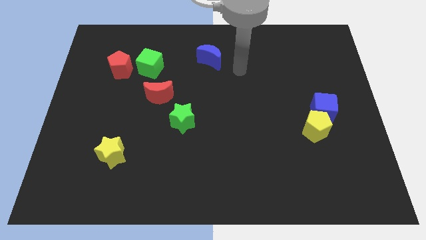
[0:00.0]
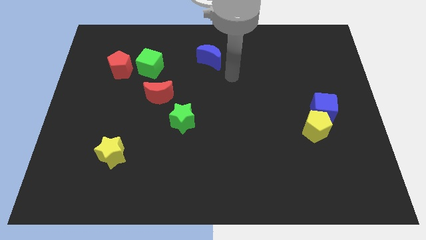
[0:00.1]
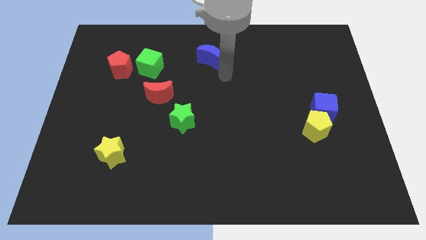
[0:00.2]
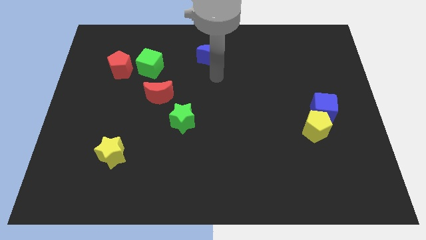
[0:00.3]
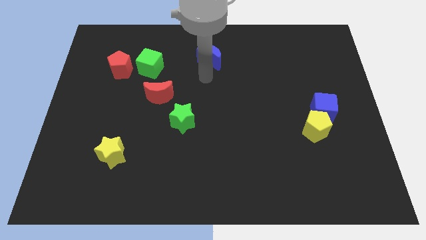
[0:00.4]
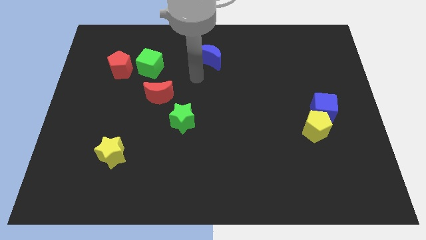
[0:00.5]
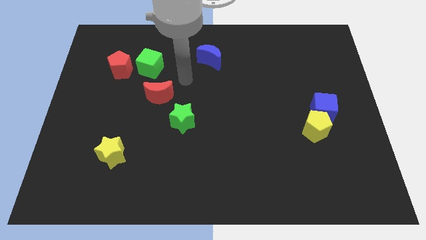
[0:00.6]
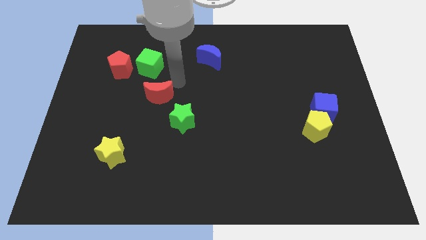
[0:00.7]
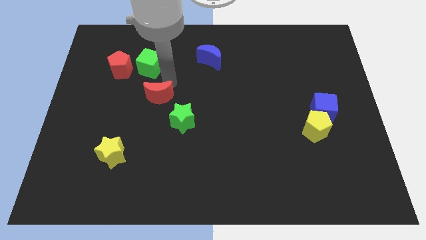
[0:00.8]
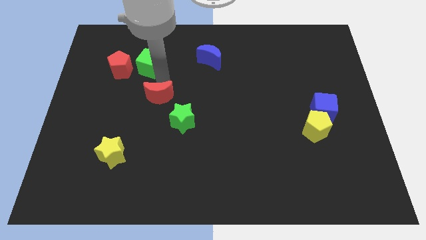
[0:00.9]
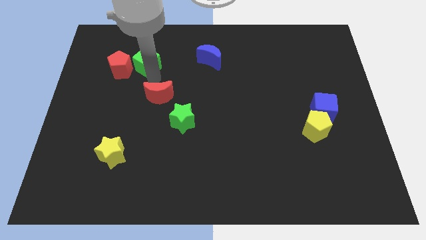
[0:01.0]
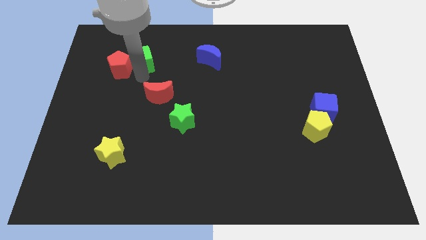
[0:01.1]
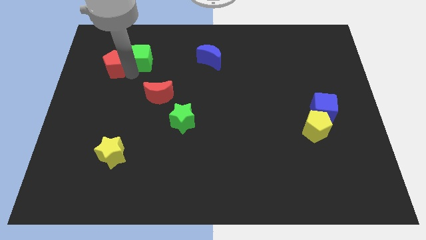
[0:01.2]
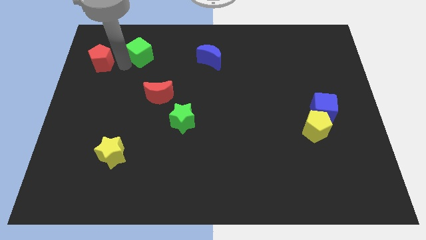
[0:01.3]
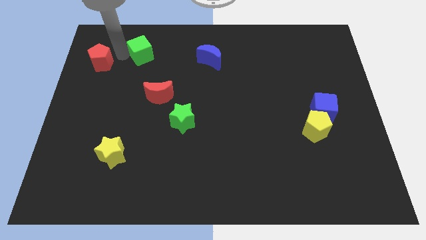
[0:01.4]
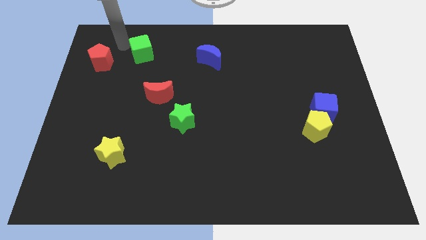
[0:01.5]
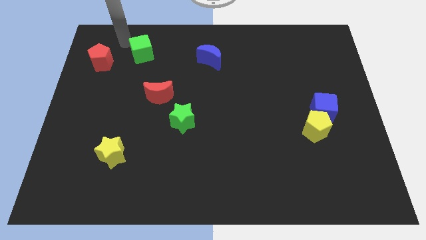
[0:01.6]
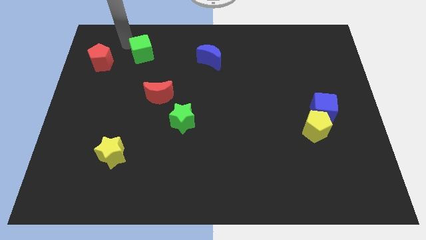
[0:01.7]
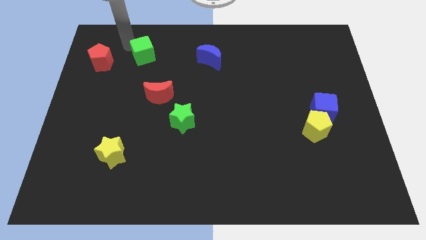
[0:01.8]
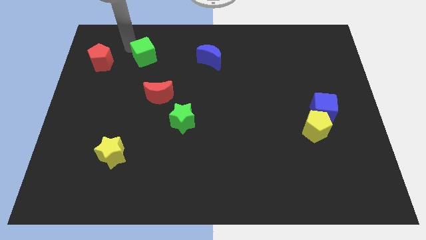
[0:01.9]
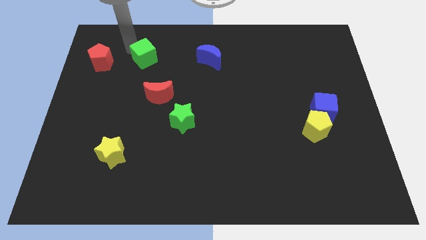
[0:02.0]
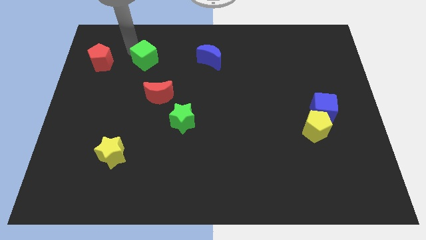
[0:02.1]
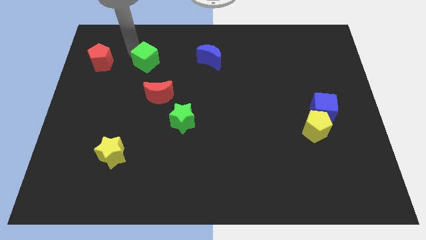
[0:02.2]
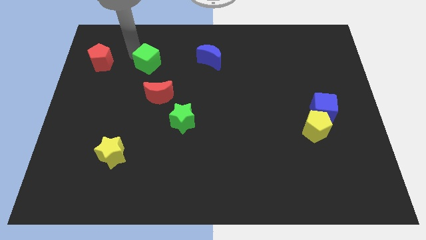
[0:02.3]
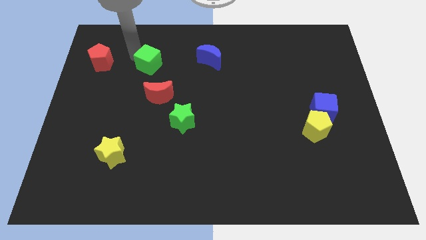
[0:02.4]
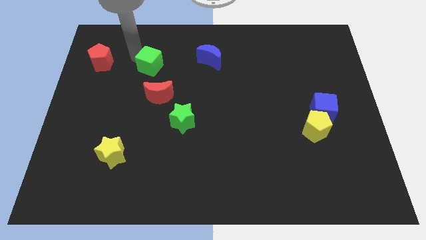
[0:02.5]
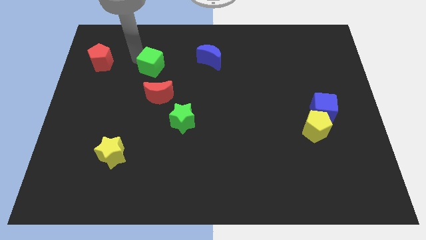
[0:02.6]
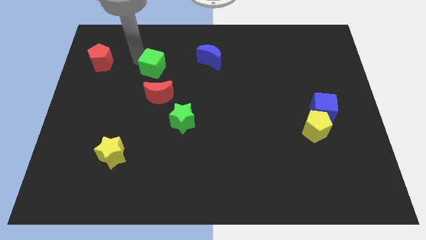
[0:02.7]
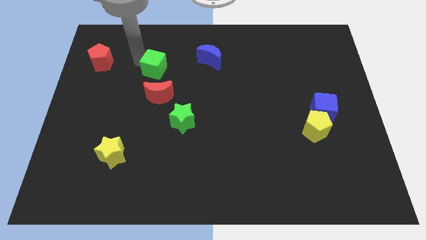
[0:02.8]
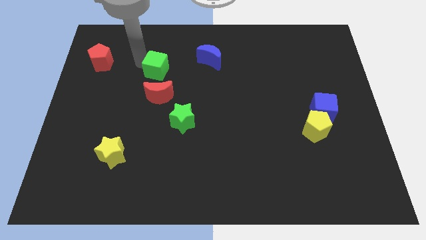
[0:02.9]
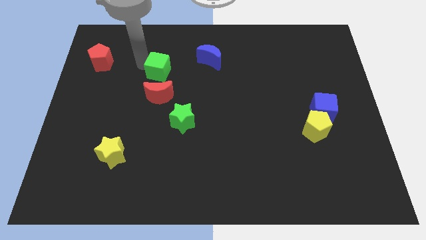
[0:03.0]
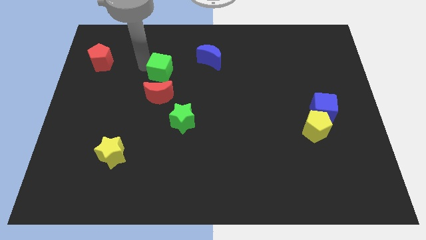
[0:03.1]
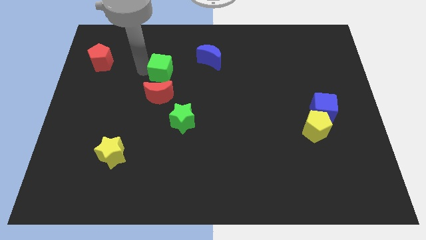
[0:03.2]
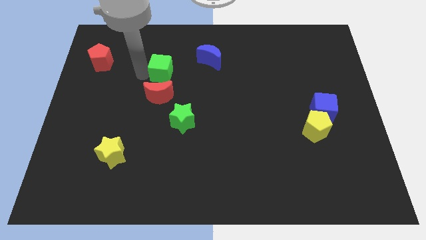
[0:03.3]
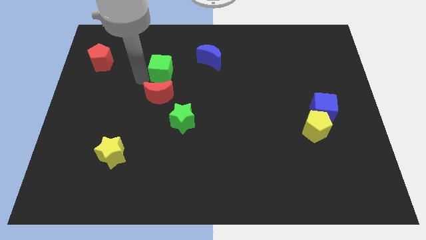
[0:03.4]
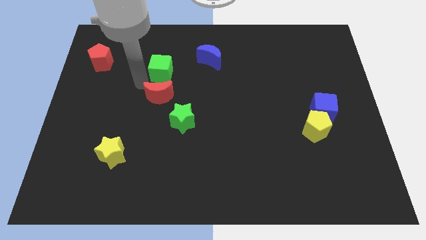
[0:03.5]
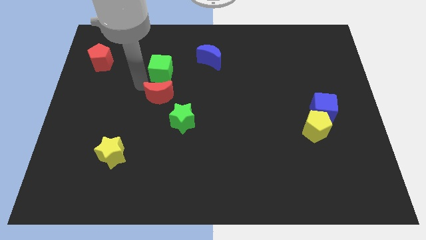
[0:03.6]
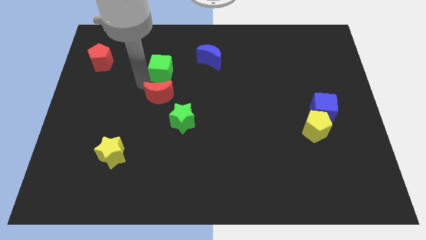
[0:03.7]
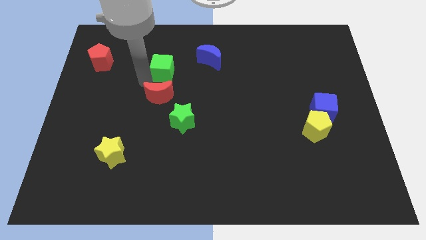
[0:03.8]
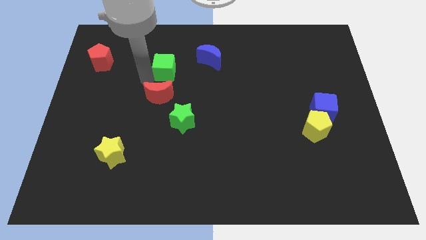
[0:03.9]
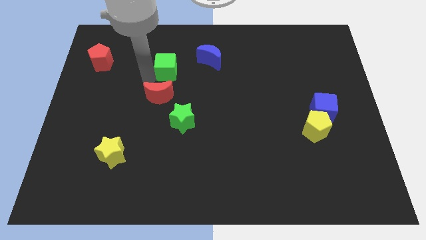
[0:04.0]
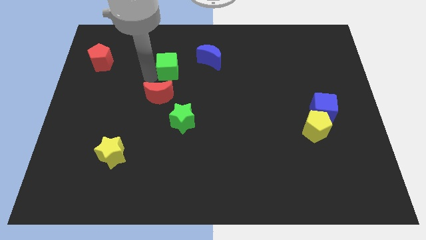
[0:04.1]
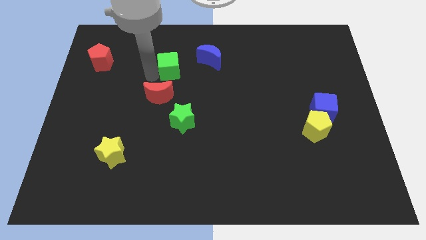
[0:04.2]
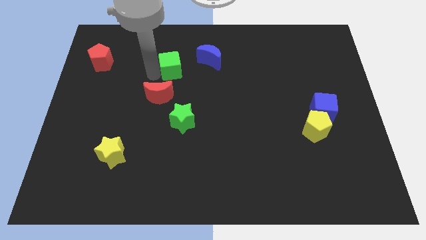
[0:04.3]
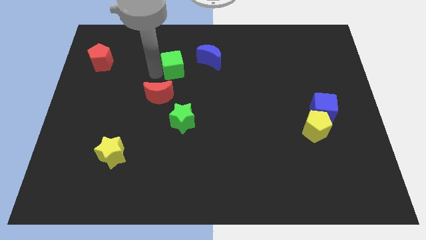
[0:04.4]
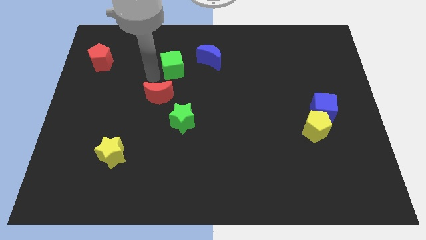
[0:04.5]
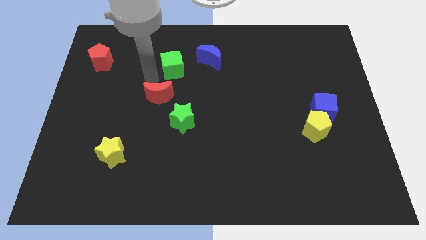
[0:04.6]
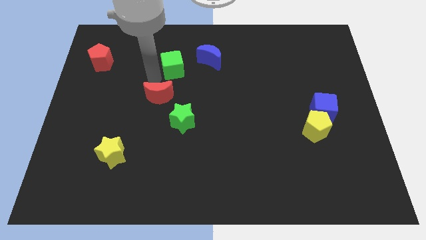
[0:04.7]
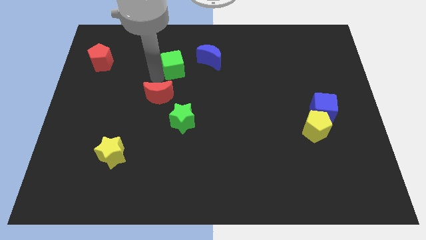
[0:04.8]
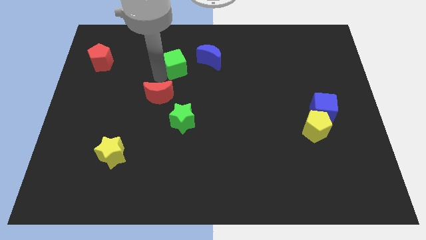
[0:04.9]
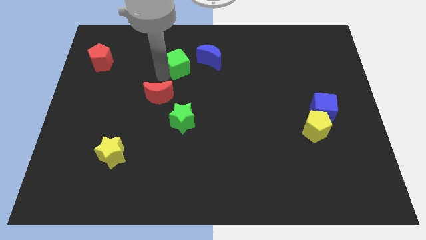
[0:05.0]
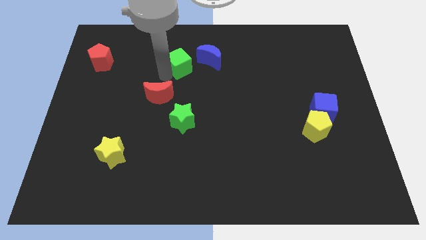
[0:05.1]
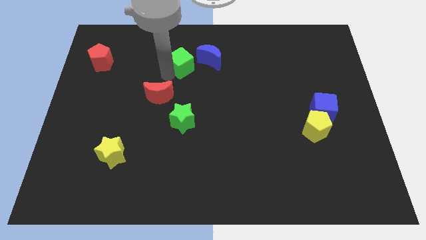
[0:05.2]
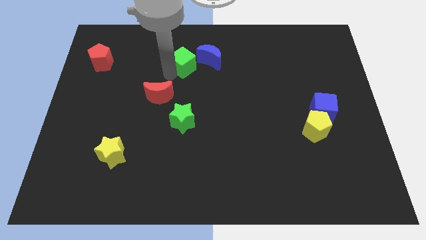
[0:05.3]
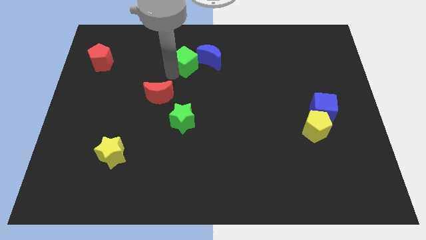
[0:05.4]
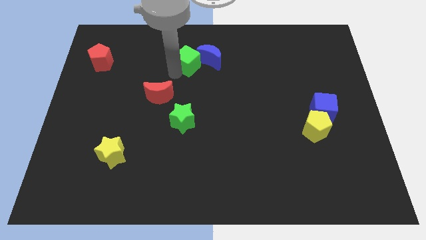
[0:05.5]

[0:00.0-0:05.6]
slide the green cube next to the blue moon

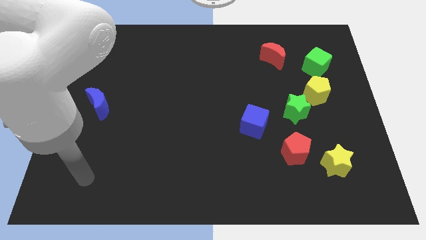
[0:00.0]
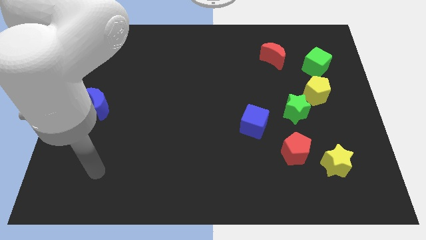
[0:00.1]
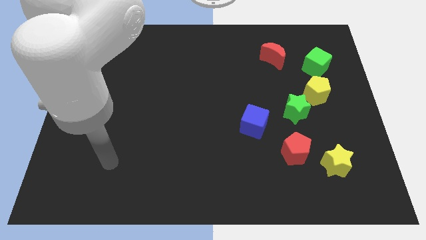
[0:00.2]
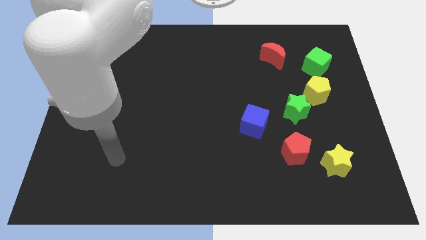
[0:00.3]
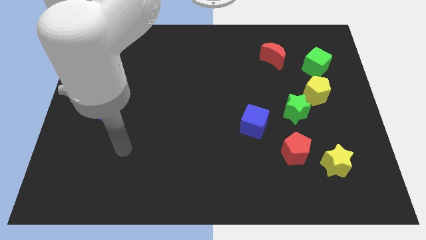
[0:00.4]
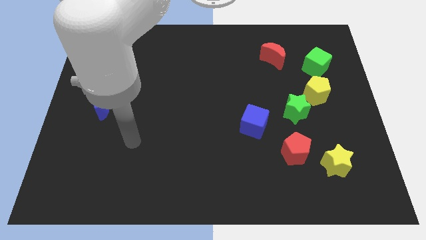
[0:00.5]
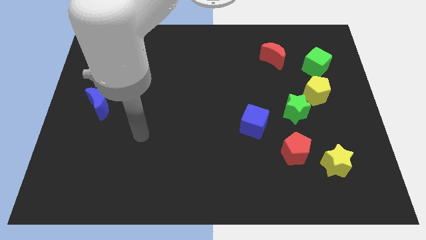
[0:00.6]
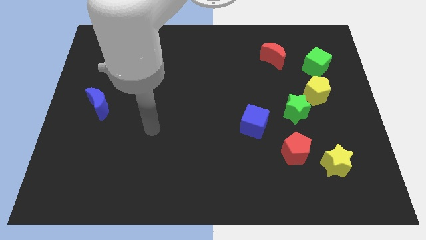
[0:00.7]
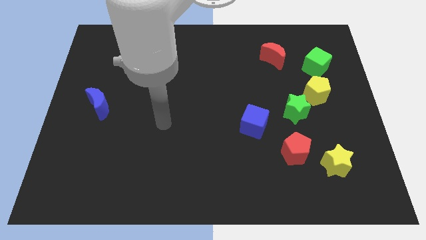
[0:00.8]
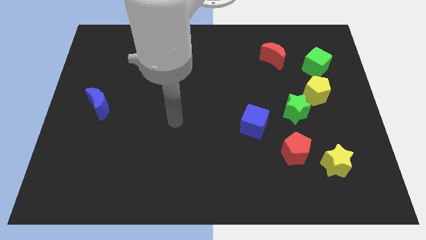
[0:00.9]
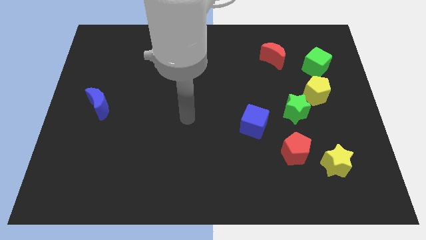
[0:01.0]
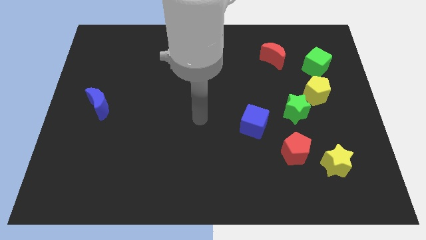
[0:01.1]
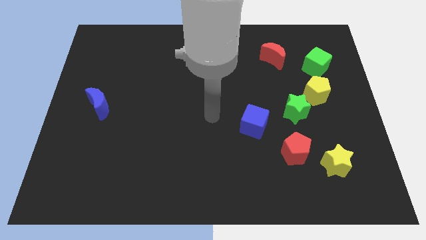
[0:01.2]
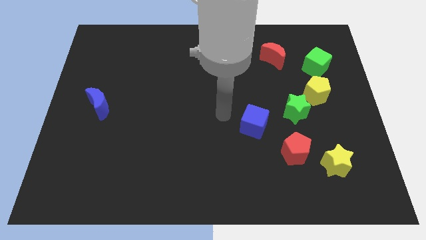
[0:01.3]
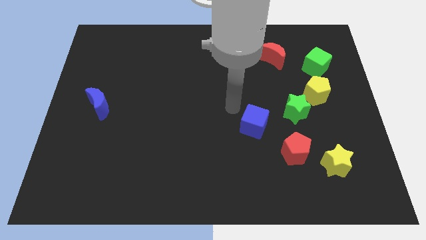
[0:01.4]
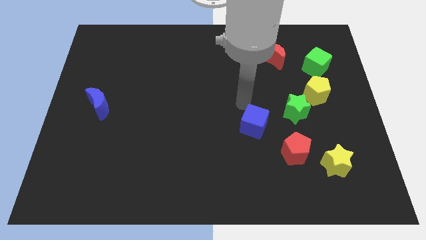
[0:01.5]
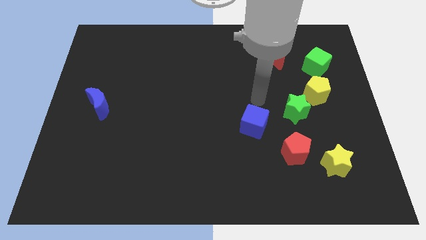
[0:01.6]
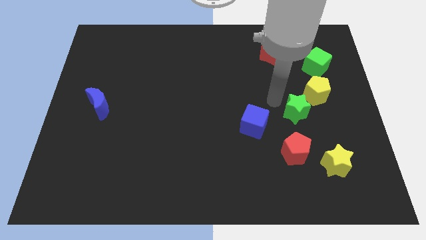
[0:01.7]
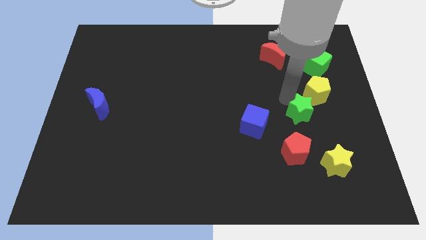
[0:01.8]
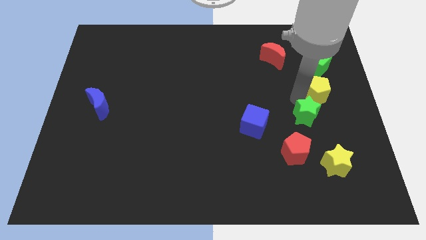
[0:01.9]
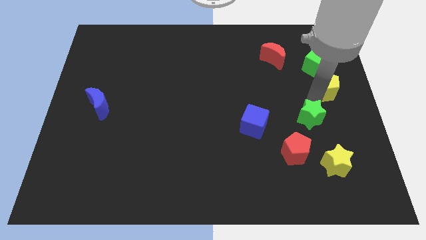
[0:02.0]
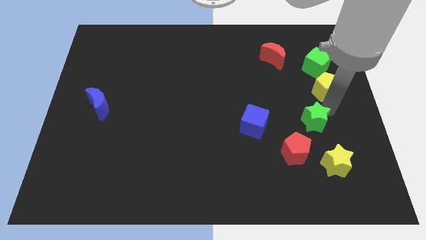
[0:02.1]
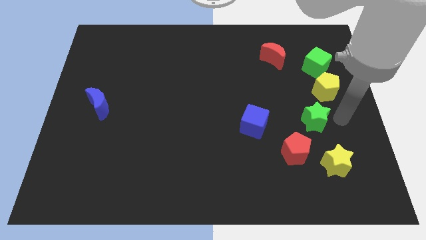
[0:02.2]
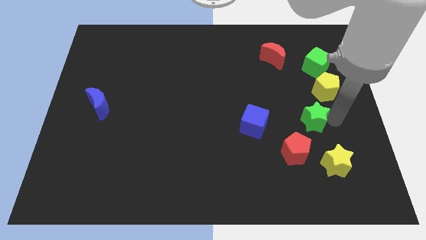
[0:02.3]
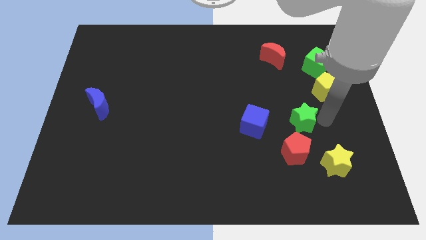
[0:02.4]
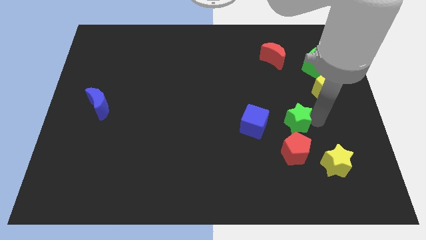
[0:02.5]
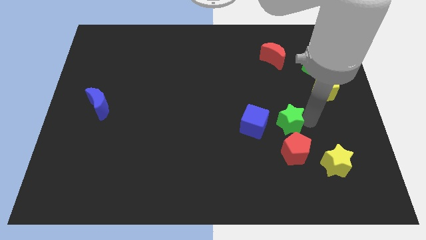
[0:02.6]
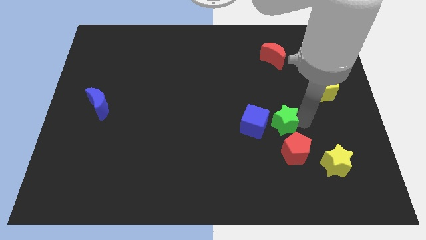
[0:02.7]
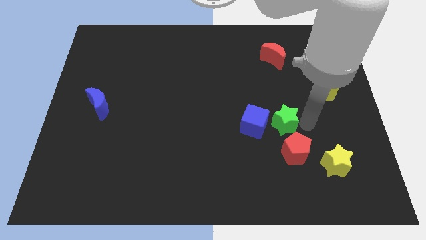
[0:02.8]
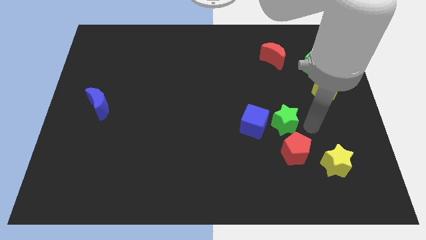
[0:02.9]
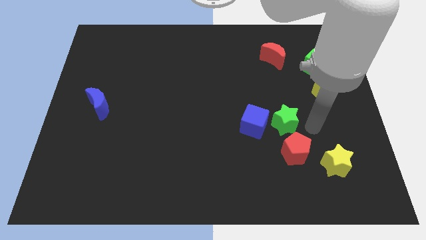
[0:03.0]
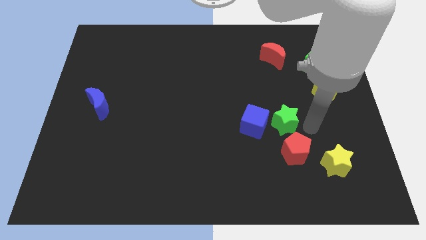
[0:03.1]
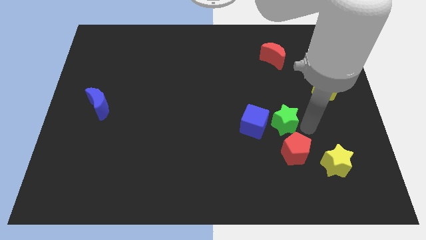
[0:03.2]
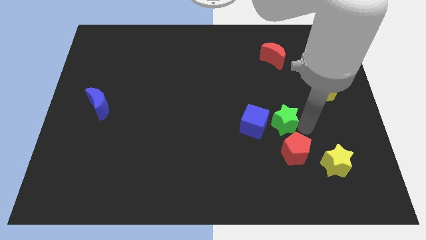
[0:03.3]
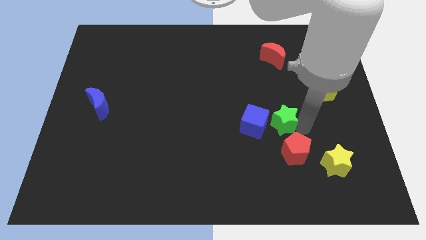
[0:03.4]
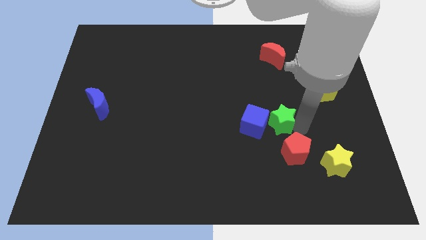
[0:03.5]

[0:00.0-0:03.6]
put the green star close to the blue cube
